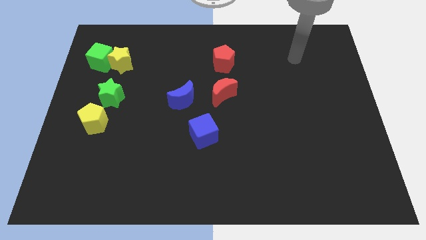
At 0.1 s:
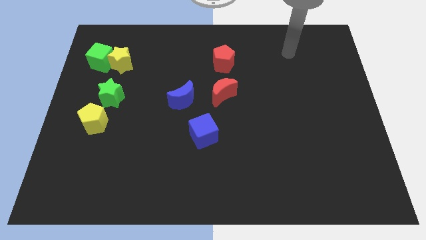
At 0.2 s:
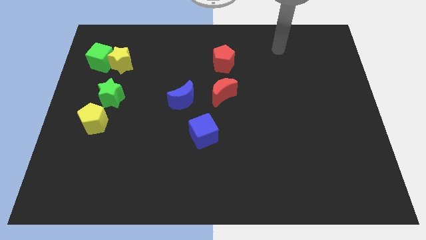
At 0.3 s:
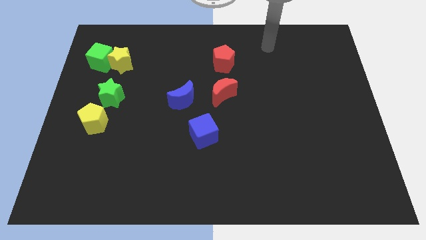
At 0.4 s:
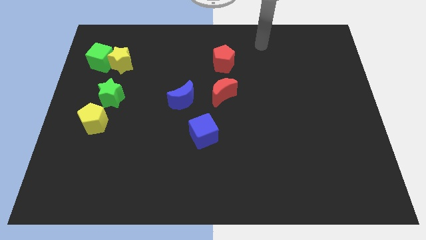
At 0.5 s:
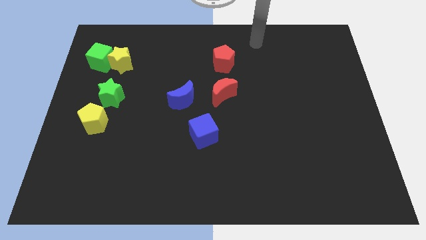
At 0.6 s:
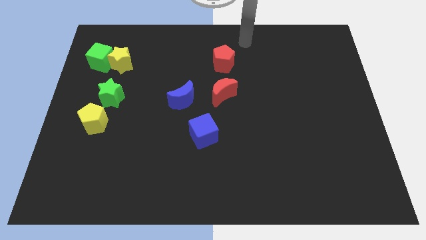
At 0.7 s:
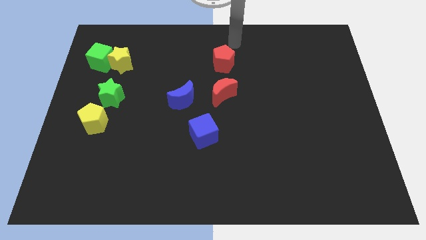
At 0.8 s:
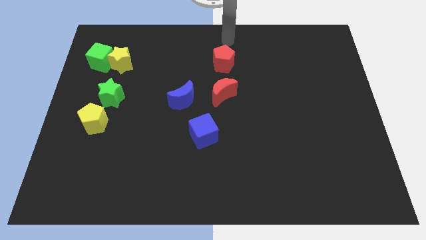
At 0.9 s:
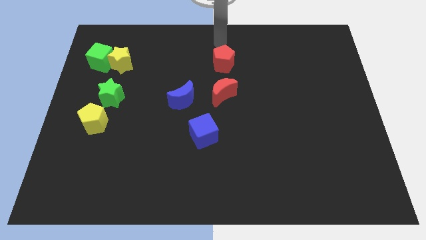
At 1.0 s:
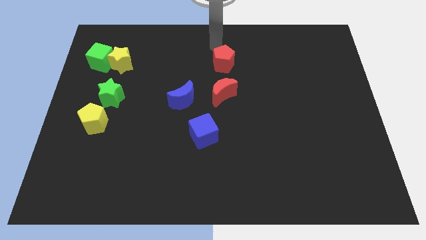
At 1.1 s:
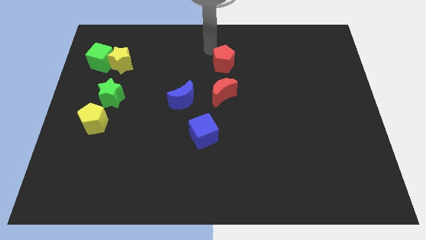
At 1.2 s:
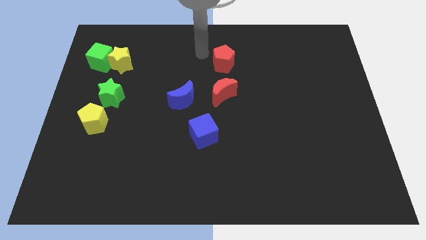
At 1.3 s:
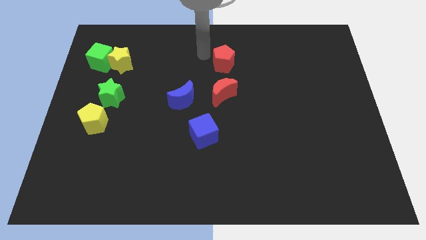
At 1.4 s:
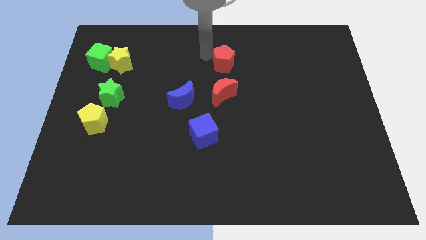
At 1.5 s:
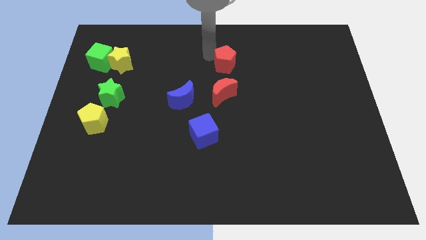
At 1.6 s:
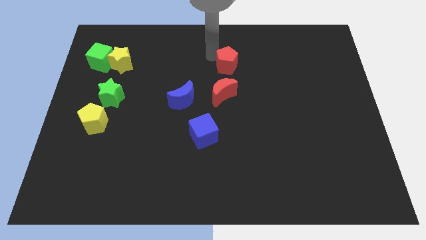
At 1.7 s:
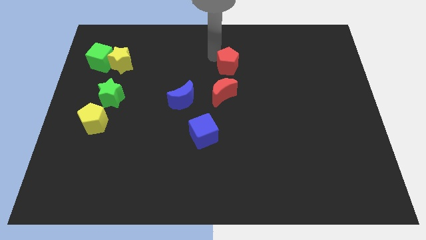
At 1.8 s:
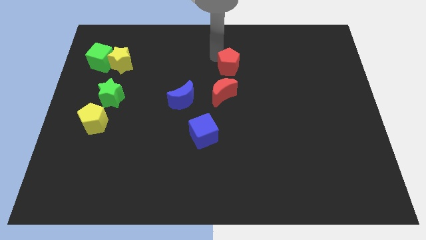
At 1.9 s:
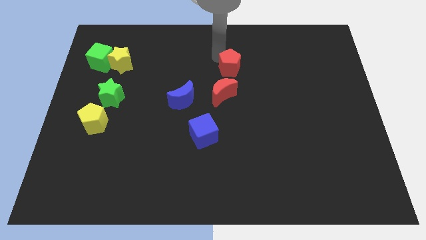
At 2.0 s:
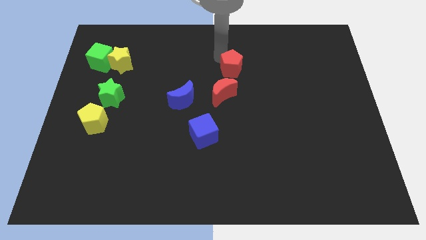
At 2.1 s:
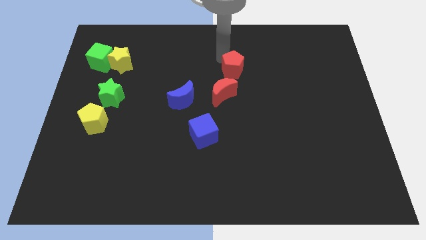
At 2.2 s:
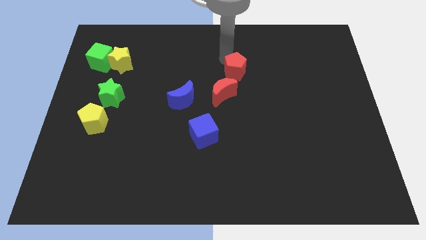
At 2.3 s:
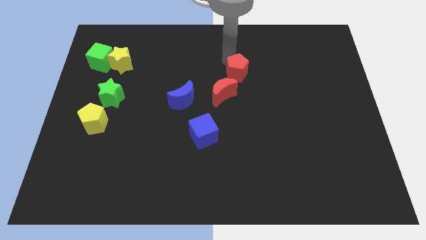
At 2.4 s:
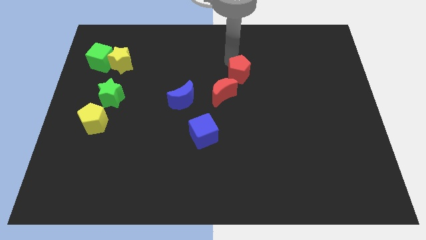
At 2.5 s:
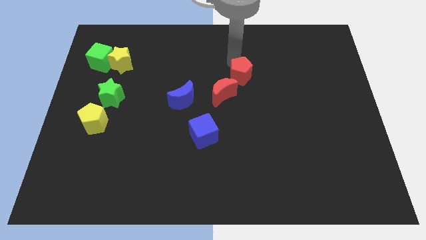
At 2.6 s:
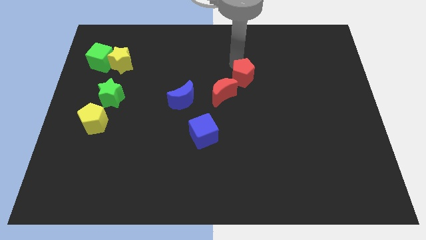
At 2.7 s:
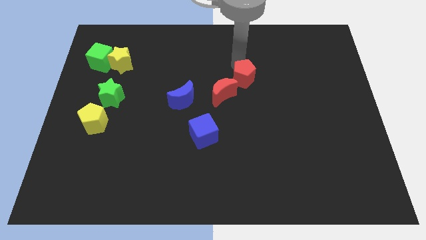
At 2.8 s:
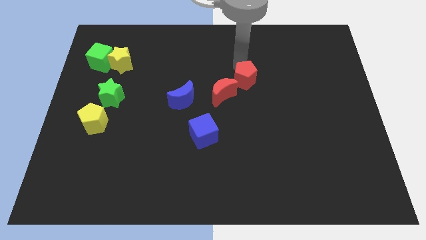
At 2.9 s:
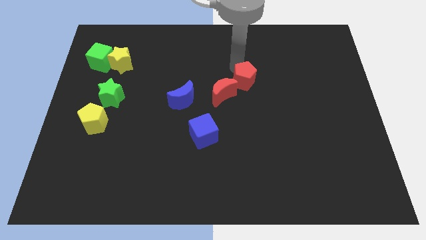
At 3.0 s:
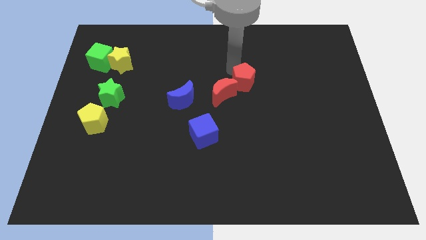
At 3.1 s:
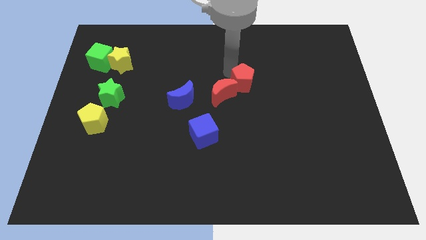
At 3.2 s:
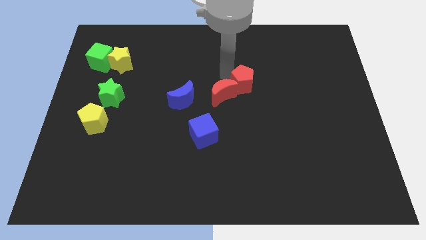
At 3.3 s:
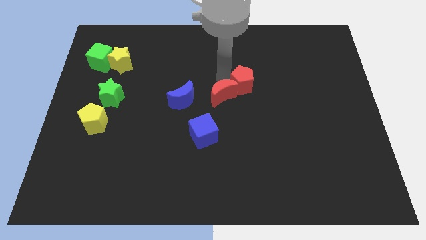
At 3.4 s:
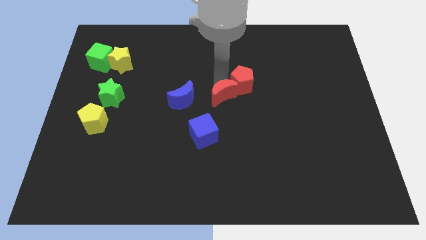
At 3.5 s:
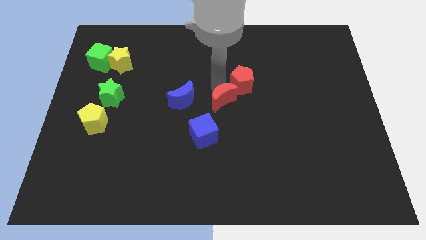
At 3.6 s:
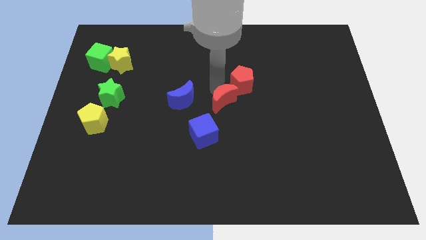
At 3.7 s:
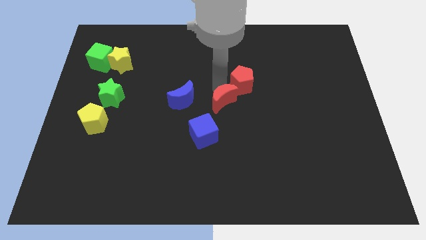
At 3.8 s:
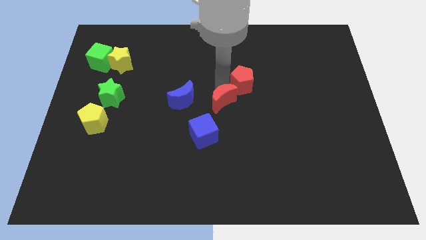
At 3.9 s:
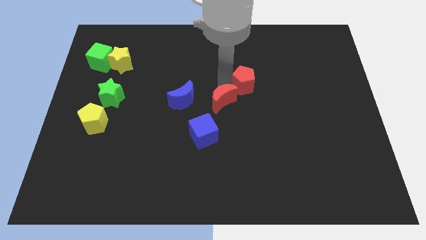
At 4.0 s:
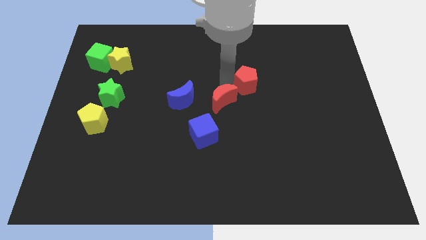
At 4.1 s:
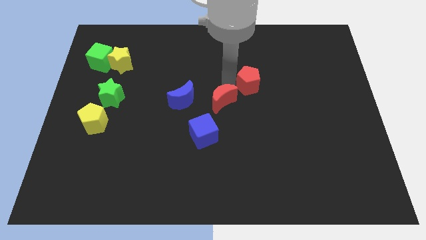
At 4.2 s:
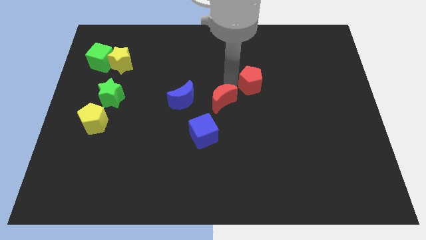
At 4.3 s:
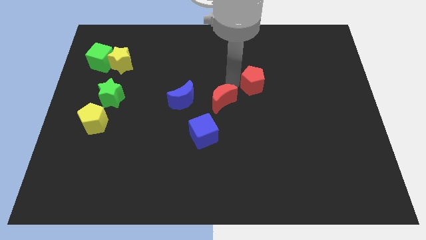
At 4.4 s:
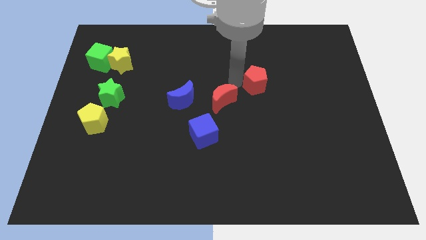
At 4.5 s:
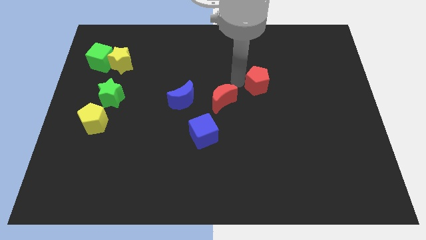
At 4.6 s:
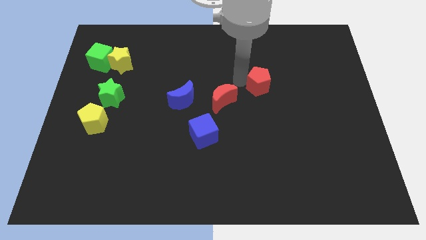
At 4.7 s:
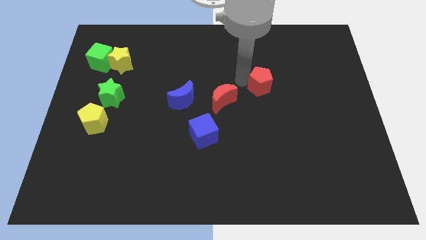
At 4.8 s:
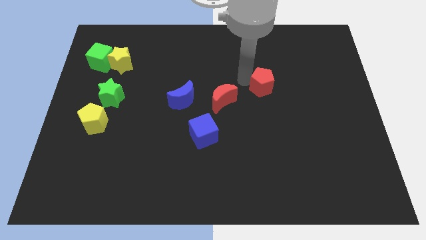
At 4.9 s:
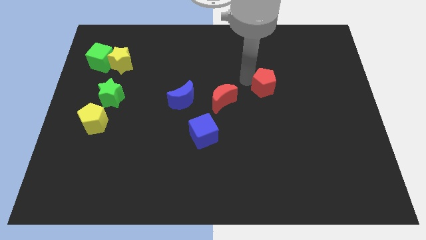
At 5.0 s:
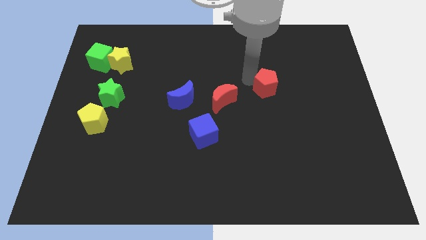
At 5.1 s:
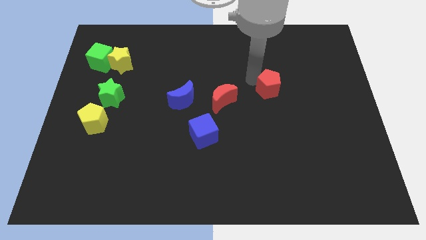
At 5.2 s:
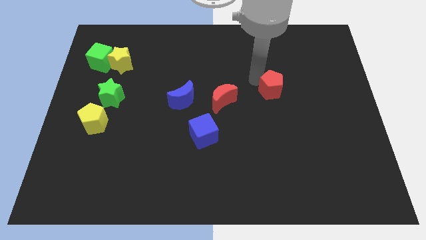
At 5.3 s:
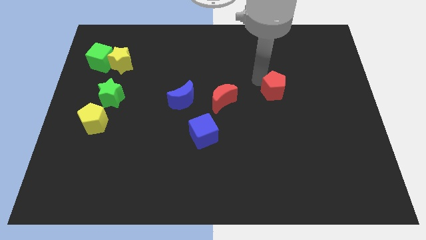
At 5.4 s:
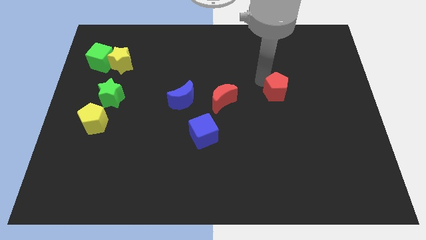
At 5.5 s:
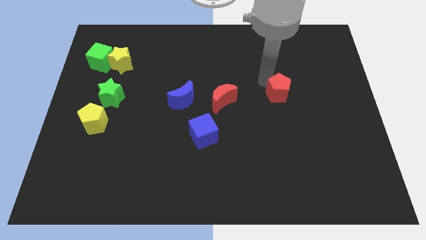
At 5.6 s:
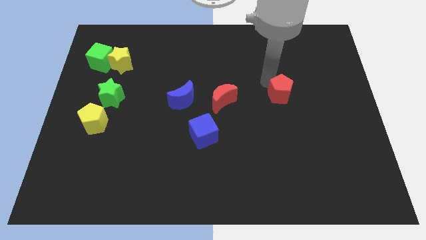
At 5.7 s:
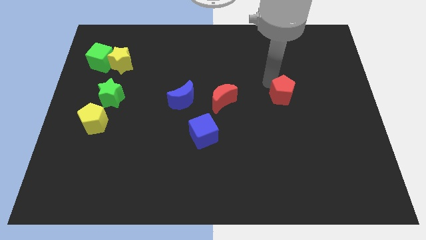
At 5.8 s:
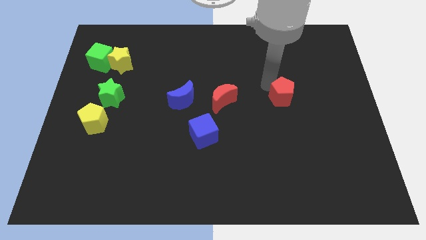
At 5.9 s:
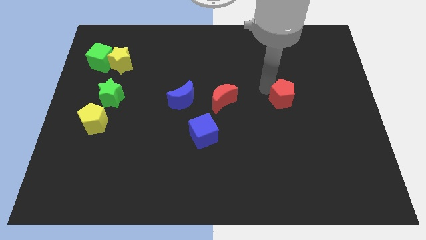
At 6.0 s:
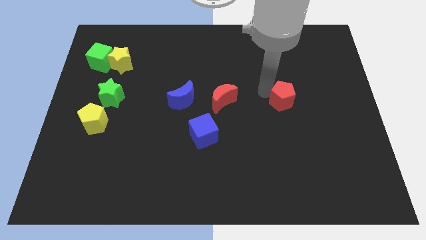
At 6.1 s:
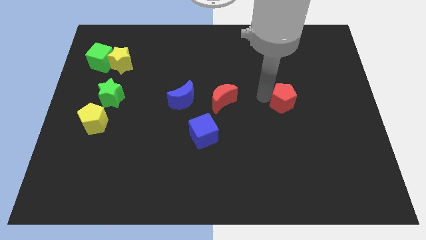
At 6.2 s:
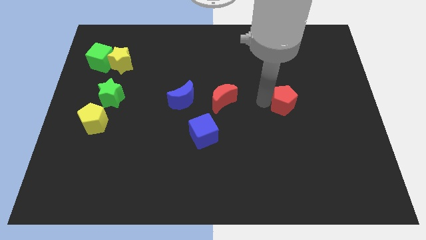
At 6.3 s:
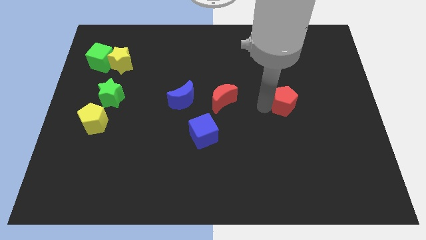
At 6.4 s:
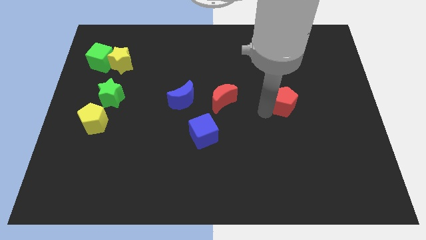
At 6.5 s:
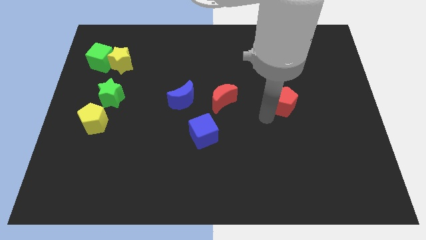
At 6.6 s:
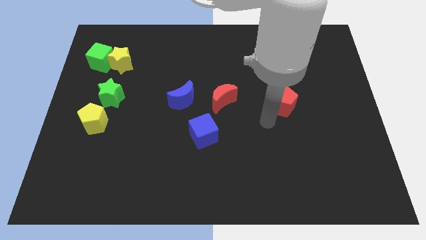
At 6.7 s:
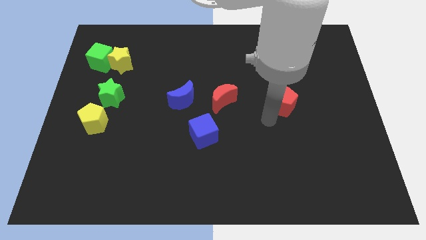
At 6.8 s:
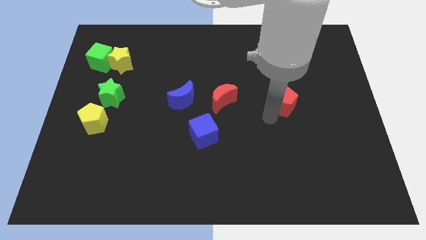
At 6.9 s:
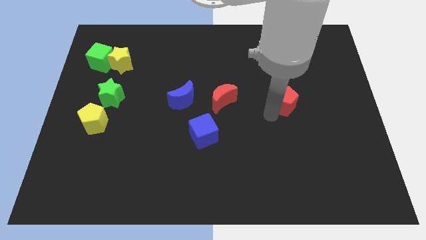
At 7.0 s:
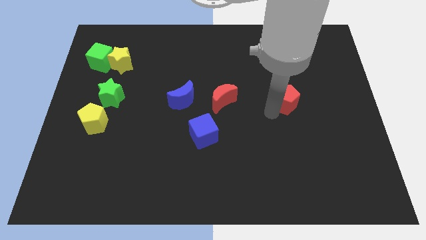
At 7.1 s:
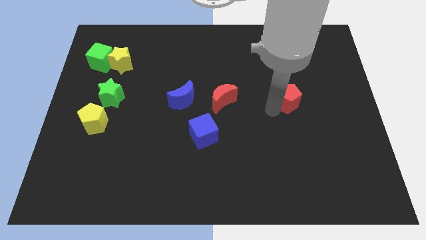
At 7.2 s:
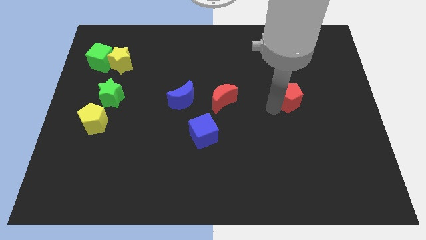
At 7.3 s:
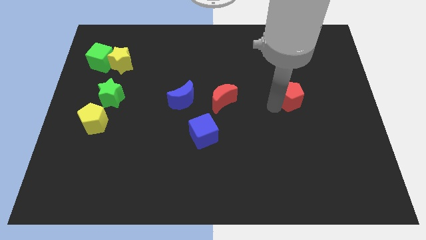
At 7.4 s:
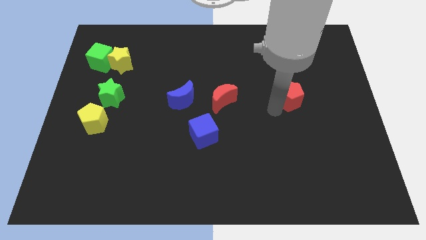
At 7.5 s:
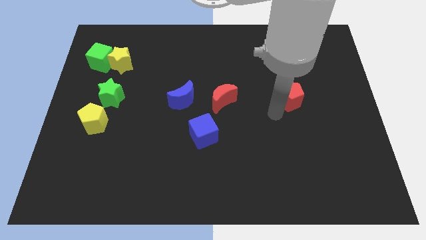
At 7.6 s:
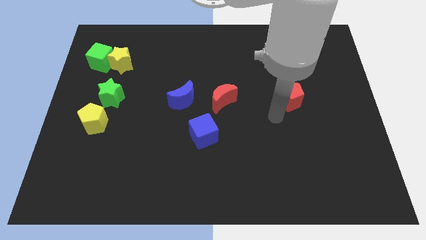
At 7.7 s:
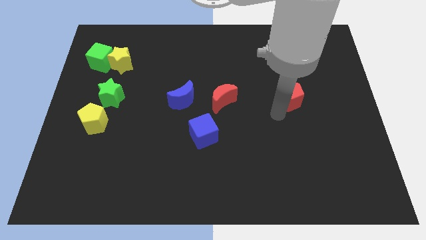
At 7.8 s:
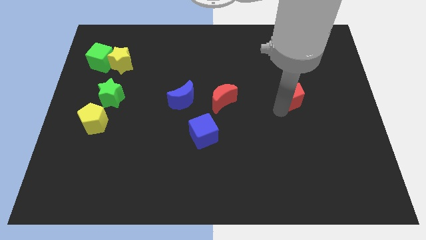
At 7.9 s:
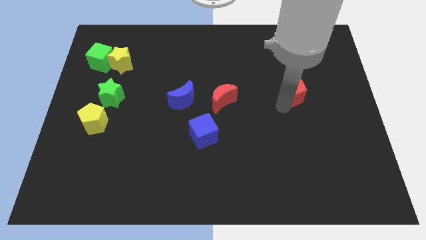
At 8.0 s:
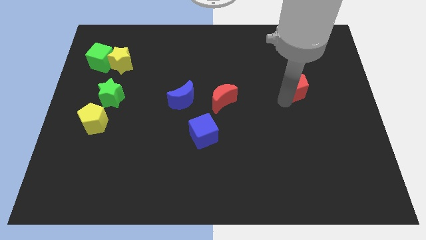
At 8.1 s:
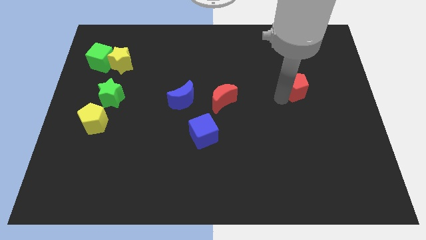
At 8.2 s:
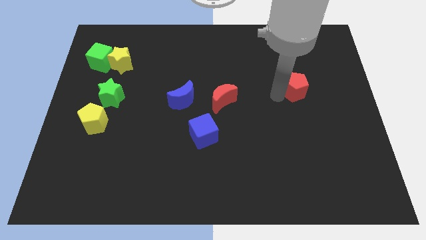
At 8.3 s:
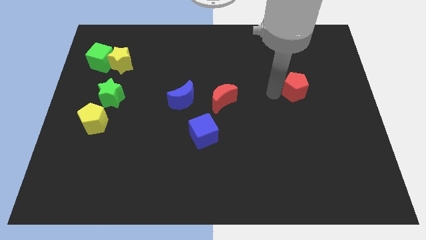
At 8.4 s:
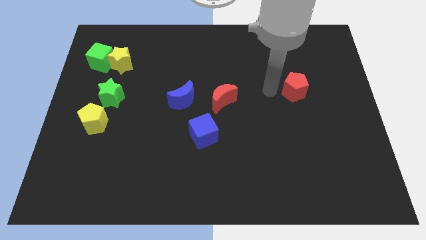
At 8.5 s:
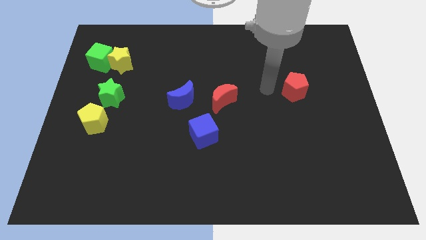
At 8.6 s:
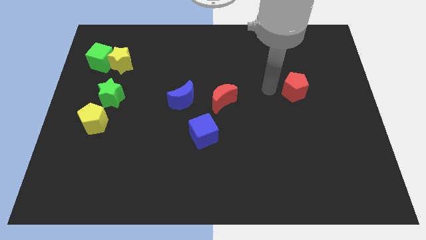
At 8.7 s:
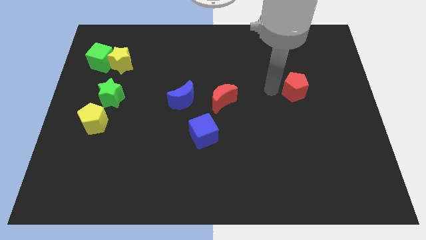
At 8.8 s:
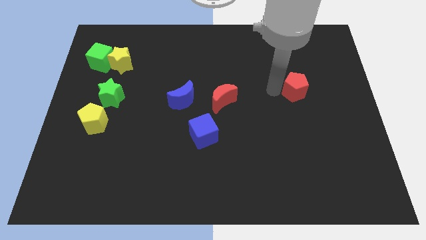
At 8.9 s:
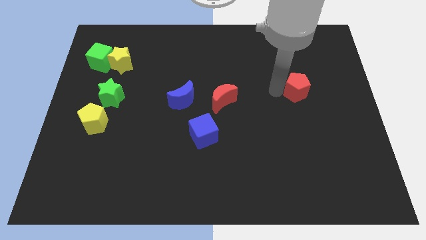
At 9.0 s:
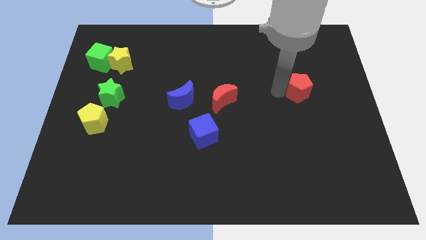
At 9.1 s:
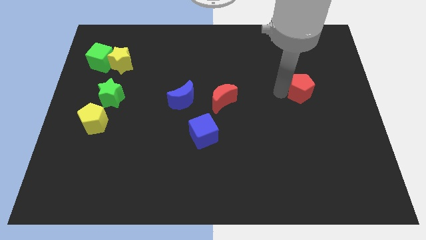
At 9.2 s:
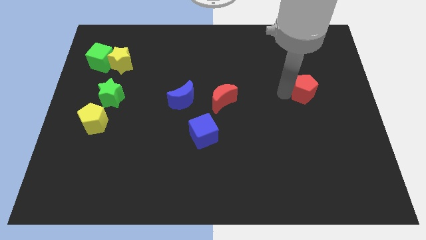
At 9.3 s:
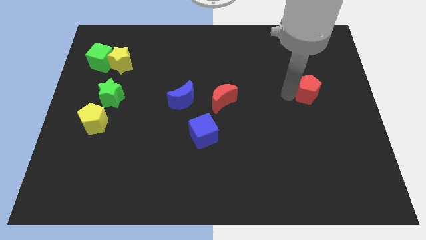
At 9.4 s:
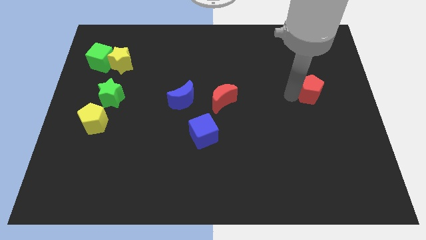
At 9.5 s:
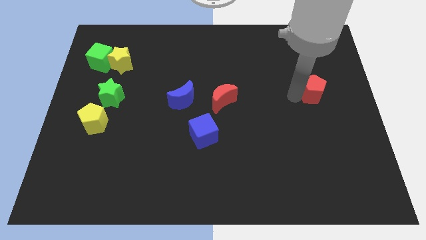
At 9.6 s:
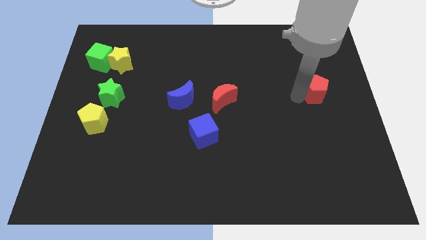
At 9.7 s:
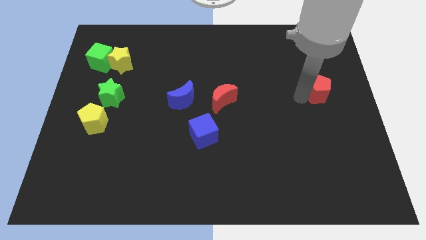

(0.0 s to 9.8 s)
put the red pentagon to the right side
